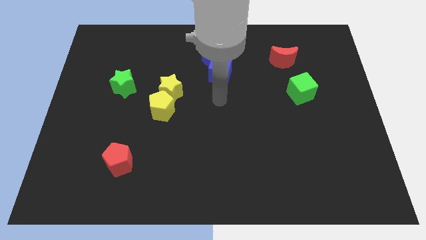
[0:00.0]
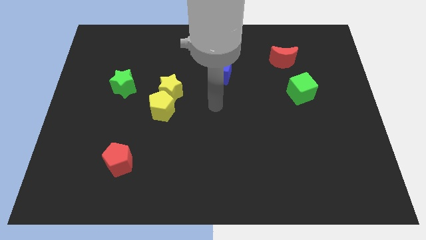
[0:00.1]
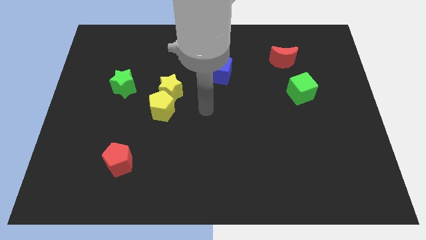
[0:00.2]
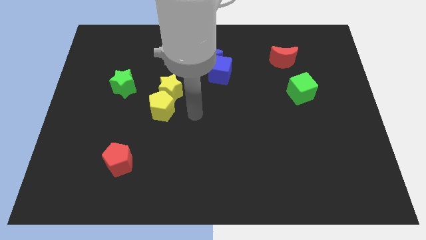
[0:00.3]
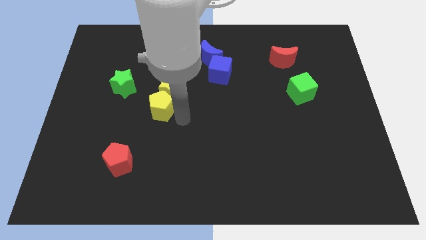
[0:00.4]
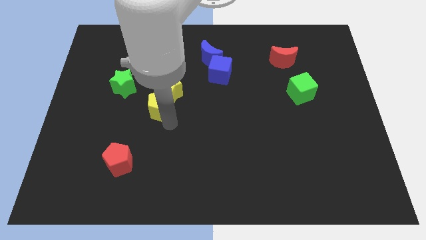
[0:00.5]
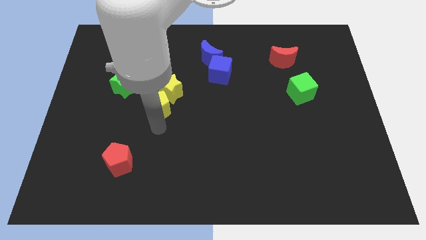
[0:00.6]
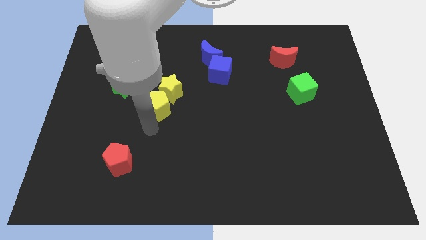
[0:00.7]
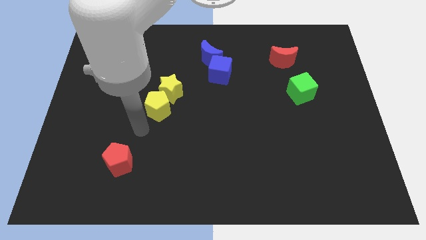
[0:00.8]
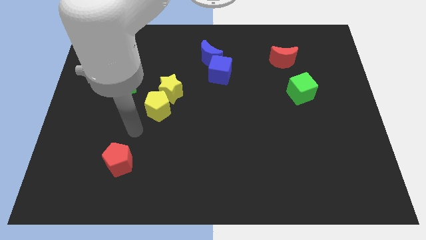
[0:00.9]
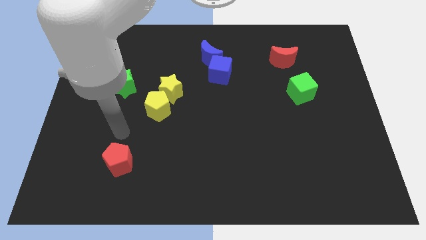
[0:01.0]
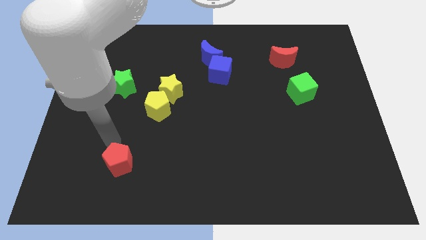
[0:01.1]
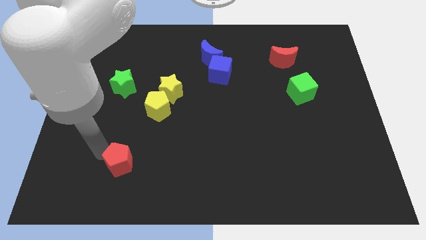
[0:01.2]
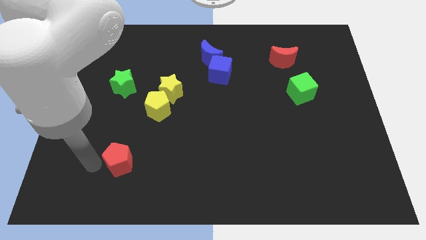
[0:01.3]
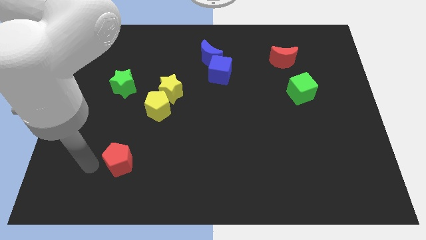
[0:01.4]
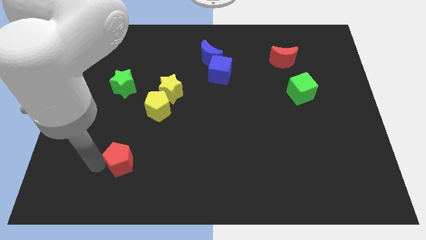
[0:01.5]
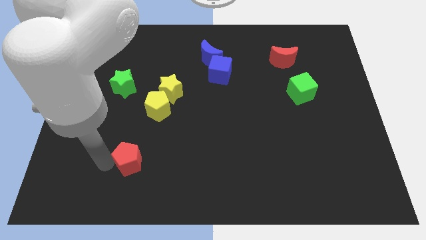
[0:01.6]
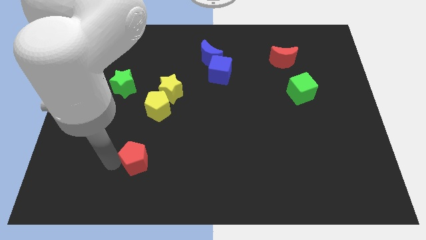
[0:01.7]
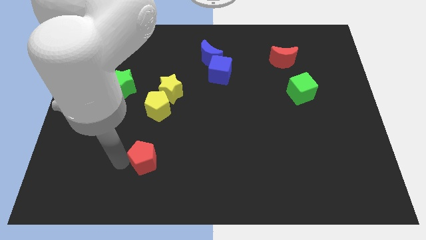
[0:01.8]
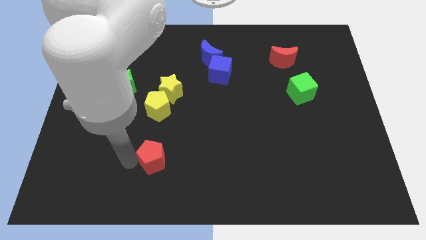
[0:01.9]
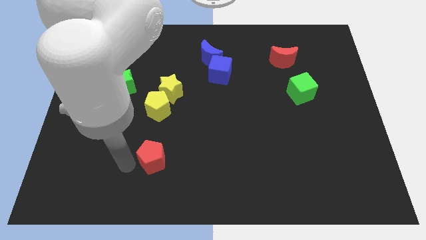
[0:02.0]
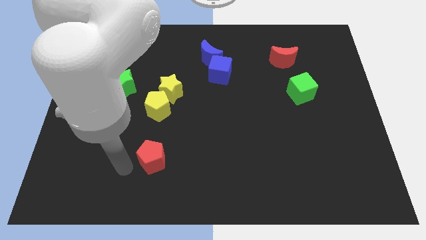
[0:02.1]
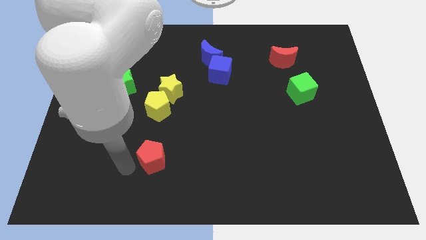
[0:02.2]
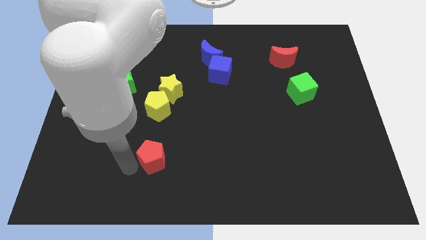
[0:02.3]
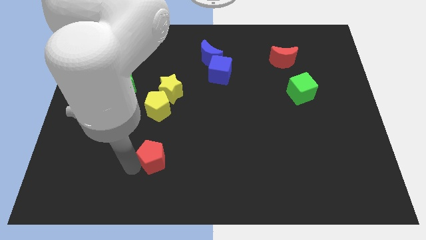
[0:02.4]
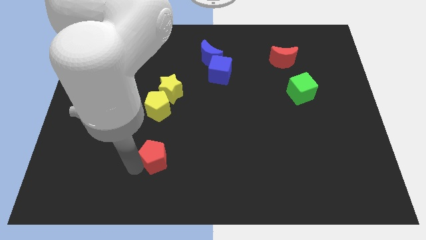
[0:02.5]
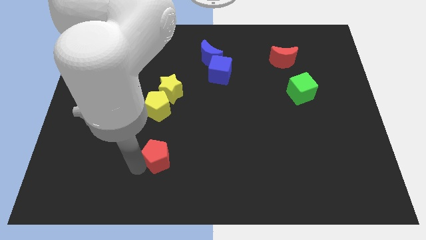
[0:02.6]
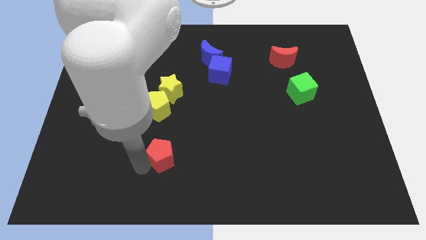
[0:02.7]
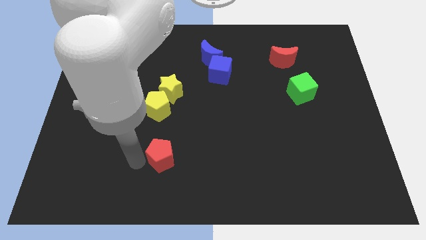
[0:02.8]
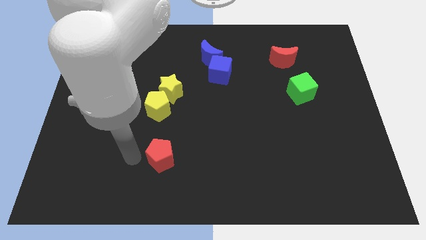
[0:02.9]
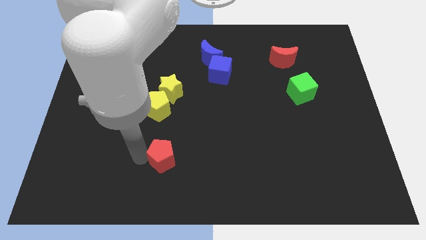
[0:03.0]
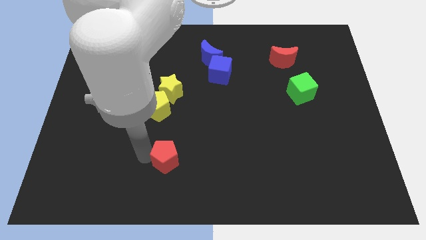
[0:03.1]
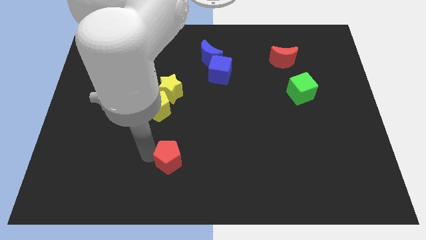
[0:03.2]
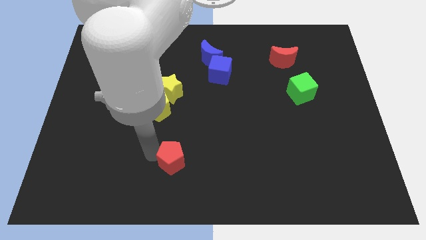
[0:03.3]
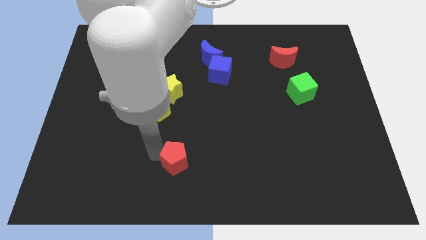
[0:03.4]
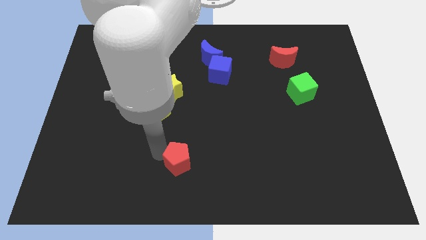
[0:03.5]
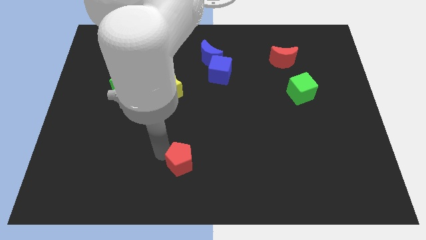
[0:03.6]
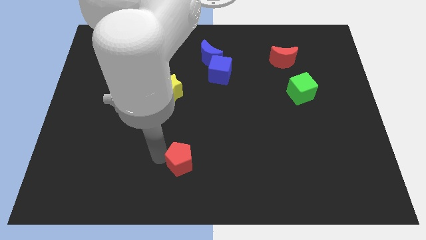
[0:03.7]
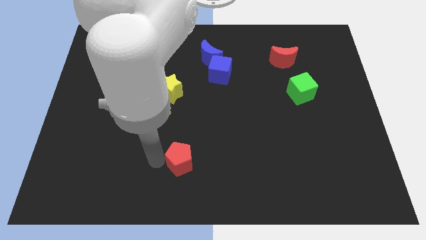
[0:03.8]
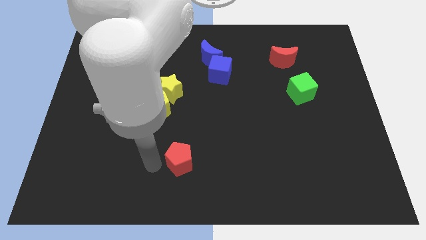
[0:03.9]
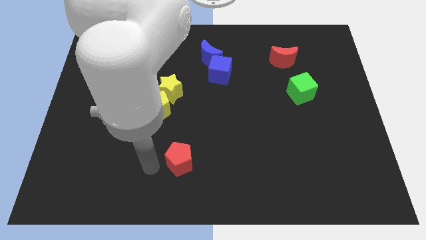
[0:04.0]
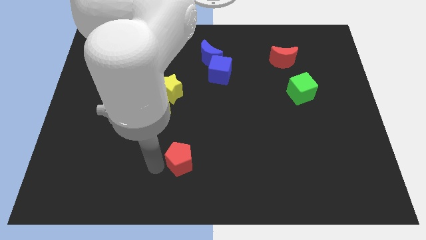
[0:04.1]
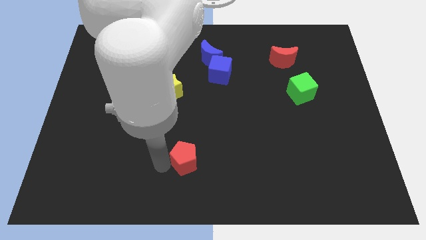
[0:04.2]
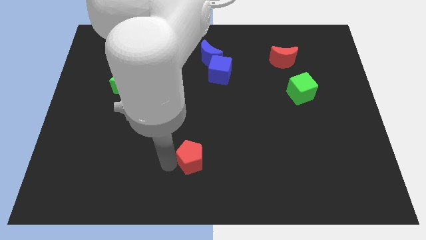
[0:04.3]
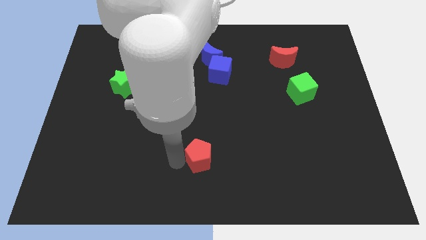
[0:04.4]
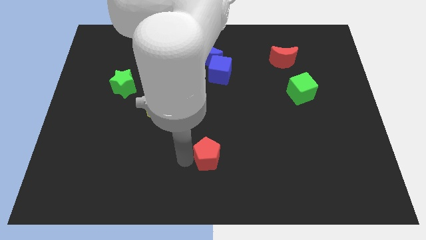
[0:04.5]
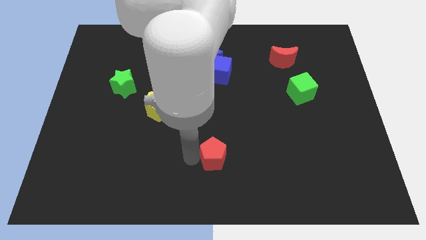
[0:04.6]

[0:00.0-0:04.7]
slide the red pentagon to the right

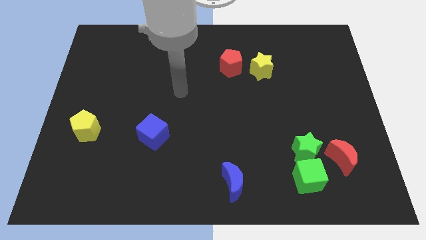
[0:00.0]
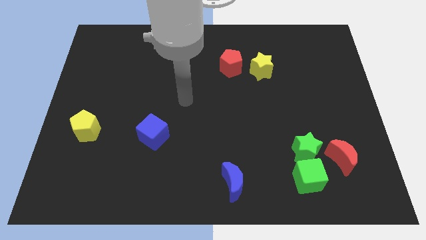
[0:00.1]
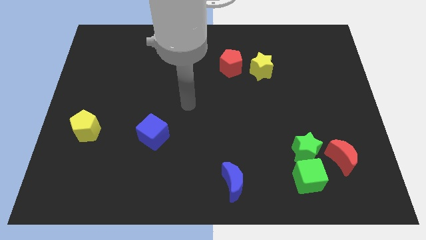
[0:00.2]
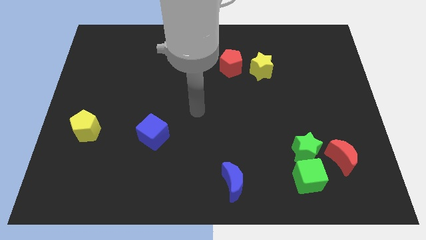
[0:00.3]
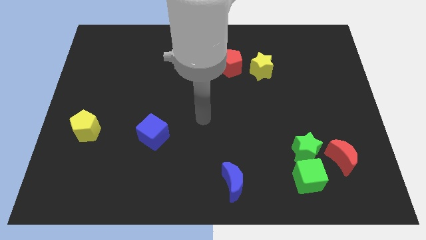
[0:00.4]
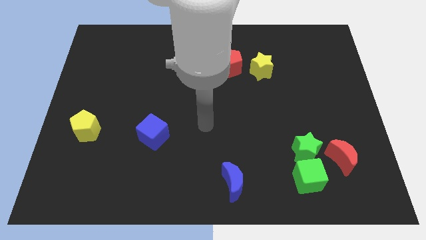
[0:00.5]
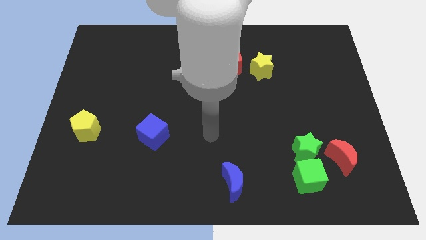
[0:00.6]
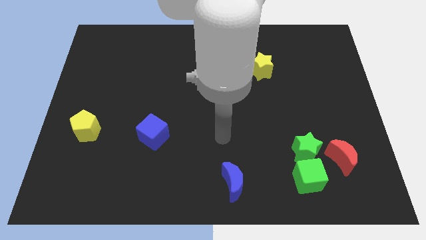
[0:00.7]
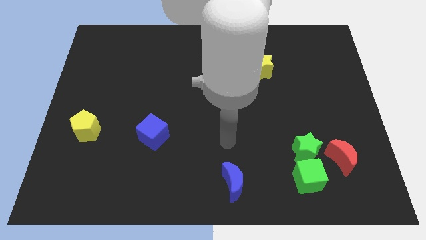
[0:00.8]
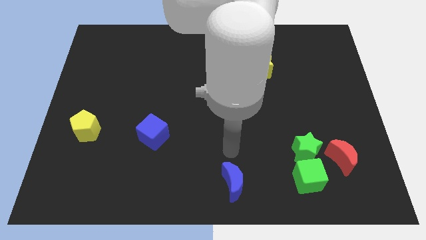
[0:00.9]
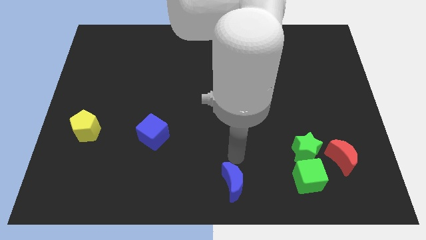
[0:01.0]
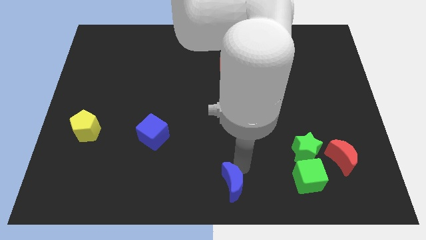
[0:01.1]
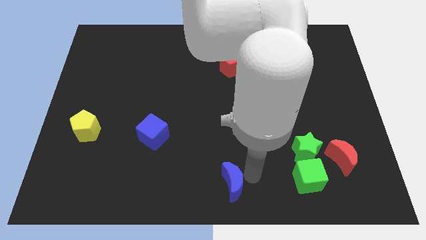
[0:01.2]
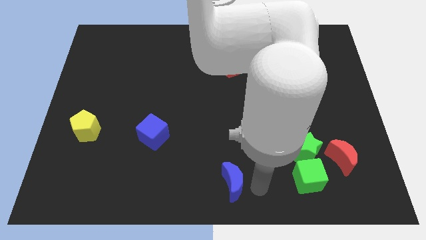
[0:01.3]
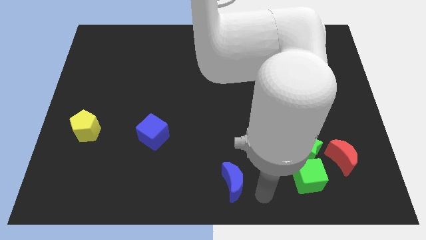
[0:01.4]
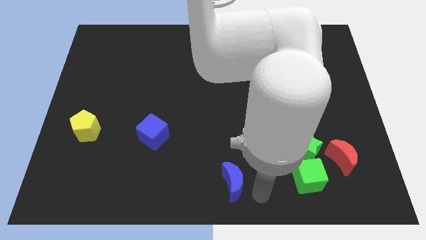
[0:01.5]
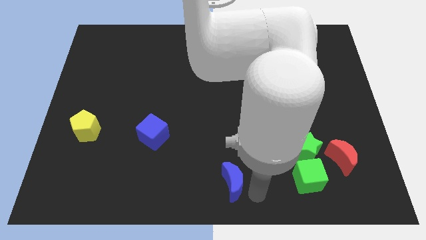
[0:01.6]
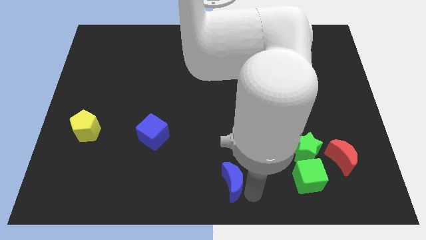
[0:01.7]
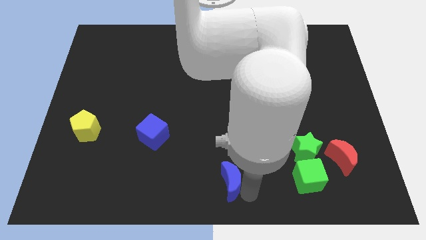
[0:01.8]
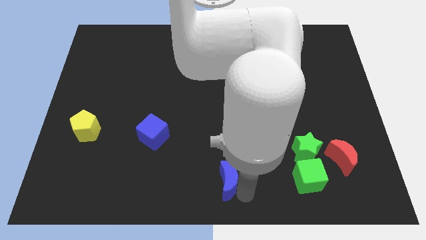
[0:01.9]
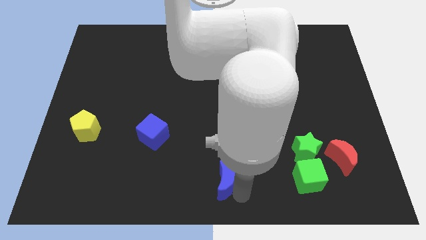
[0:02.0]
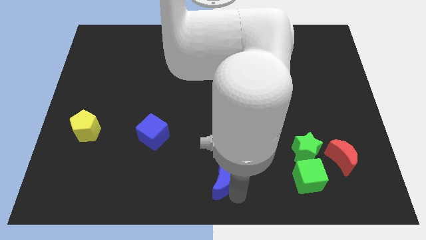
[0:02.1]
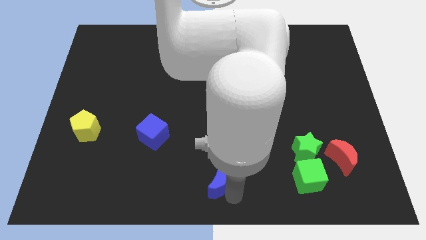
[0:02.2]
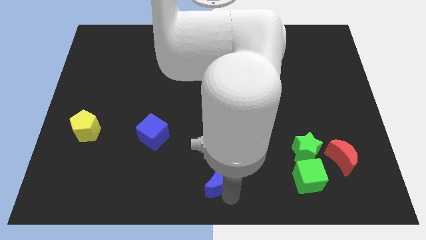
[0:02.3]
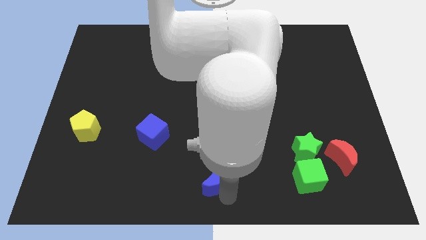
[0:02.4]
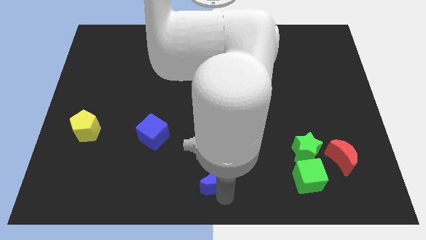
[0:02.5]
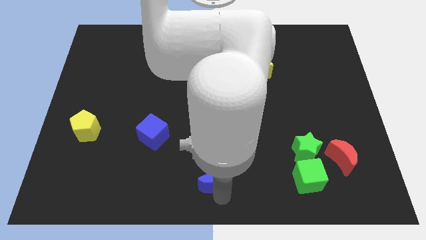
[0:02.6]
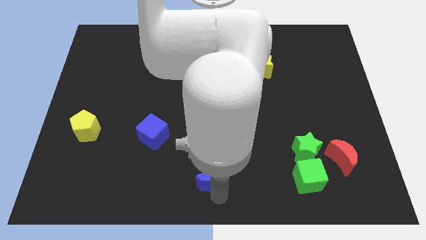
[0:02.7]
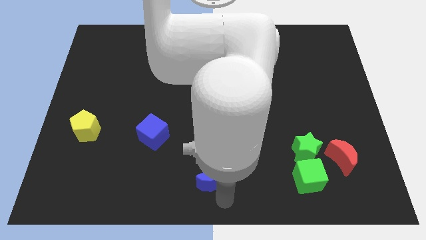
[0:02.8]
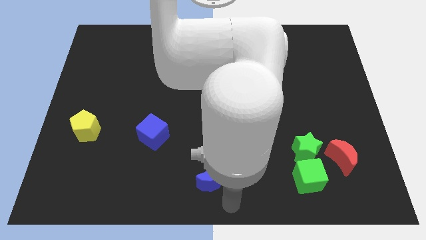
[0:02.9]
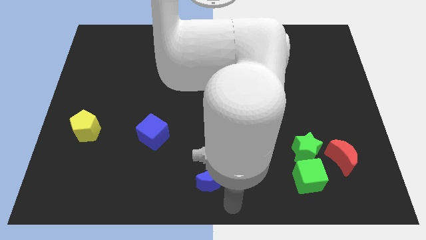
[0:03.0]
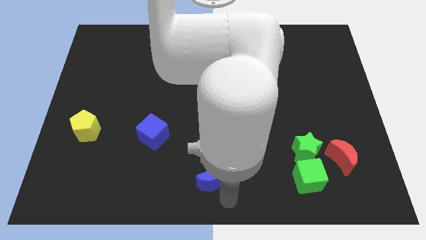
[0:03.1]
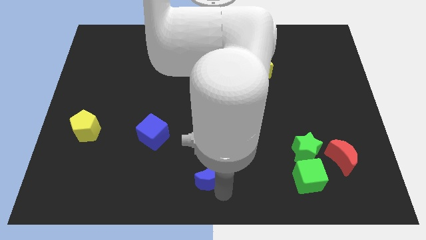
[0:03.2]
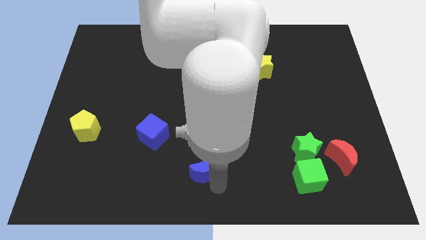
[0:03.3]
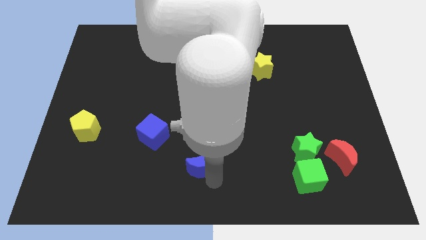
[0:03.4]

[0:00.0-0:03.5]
slightly slide the blue moon up and then to the left
